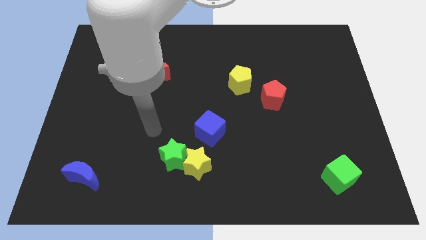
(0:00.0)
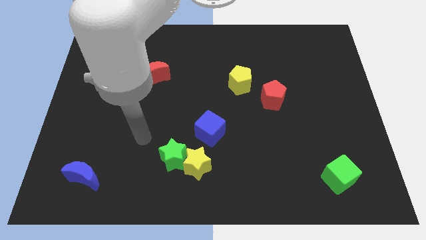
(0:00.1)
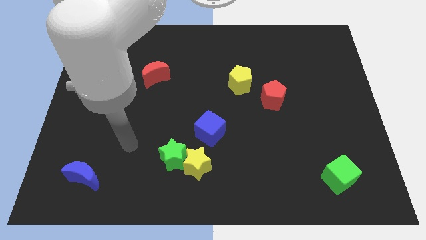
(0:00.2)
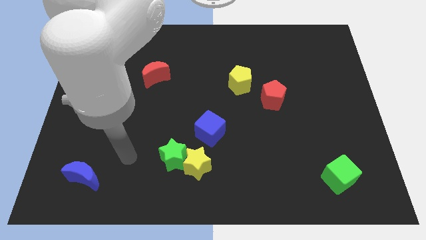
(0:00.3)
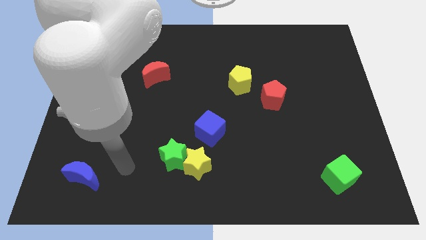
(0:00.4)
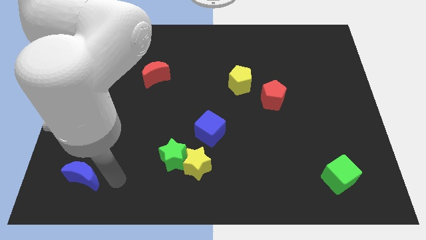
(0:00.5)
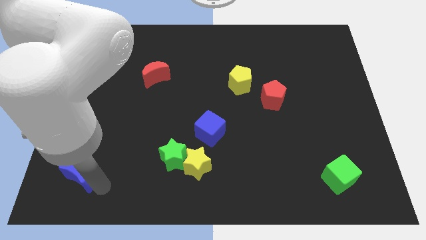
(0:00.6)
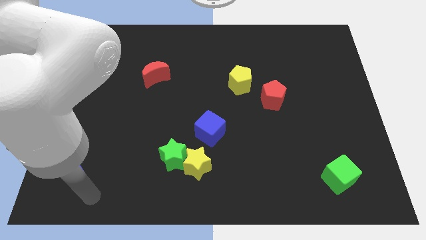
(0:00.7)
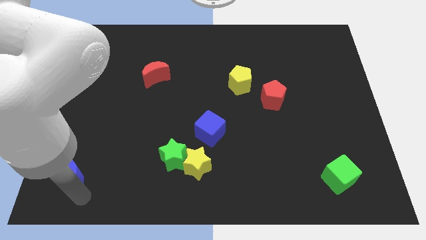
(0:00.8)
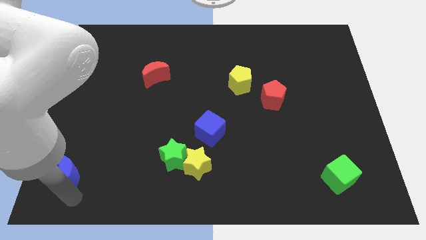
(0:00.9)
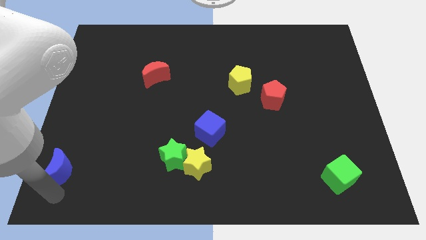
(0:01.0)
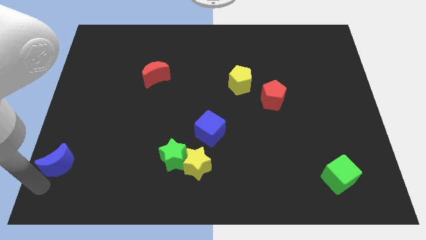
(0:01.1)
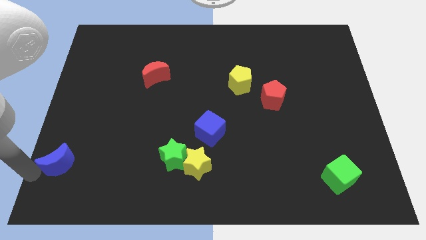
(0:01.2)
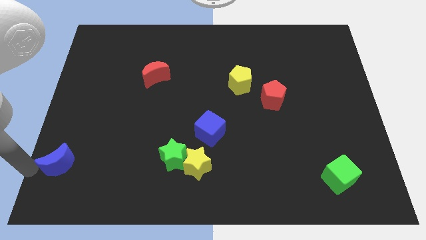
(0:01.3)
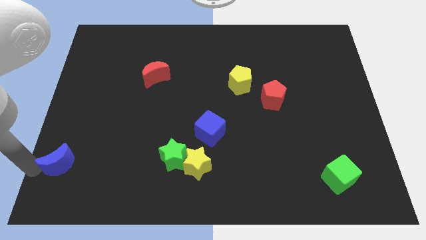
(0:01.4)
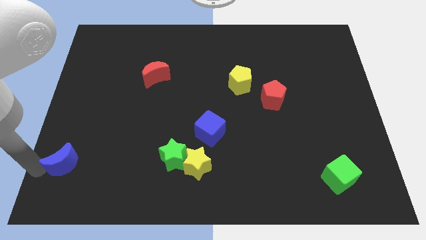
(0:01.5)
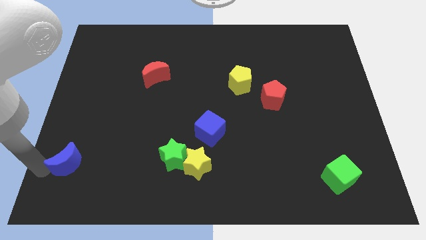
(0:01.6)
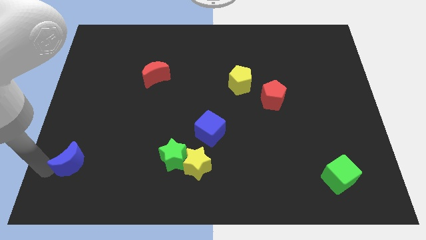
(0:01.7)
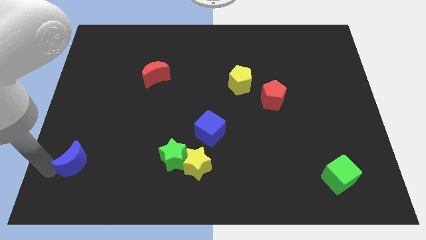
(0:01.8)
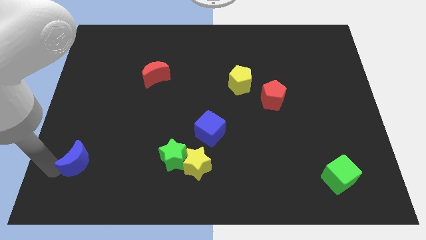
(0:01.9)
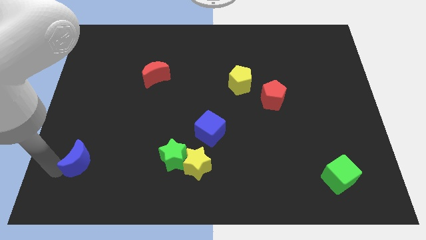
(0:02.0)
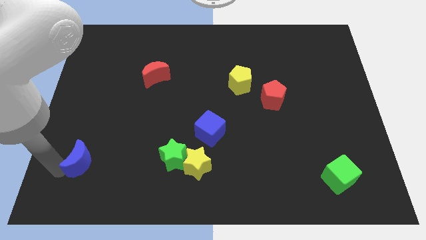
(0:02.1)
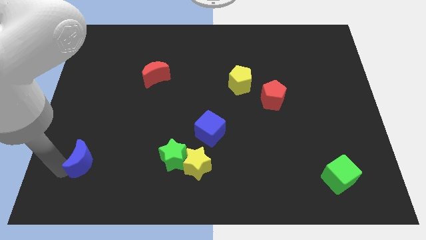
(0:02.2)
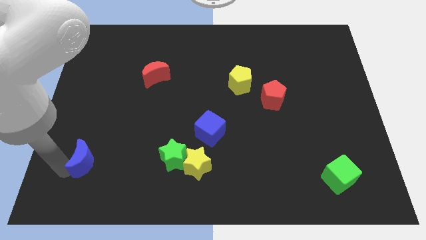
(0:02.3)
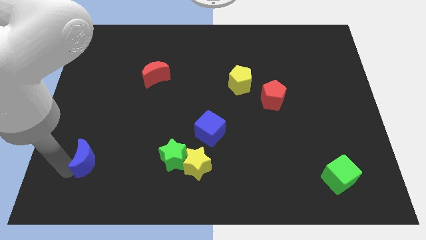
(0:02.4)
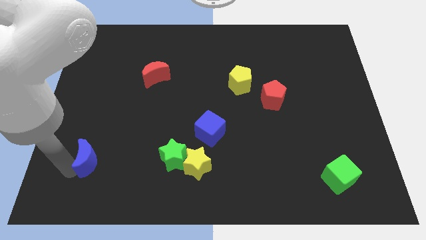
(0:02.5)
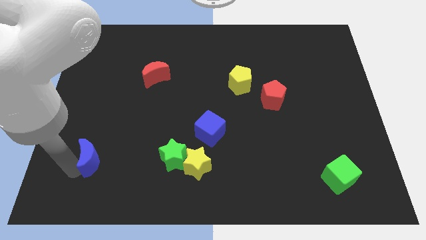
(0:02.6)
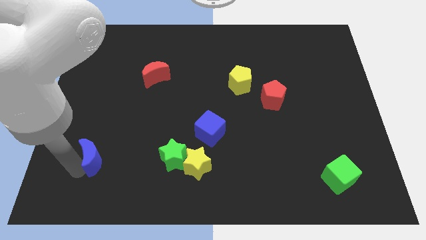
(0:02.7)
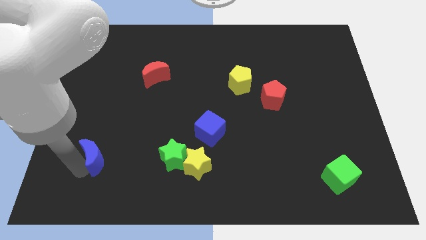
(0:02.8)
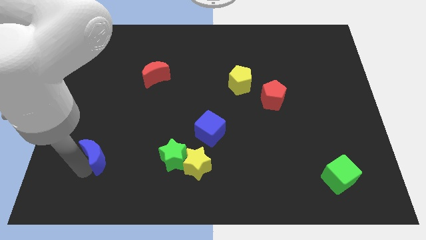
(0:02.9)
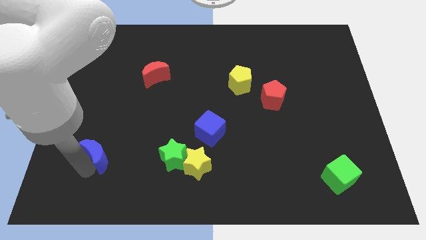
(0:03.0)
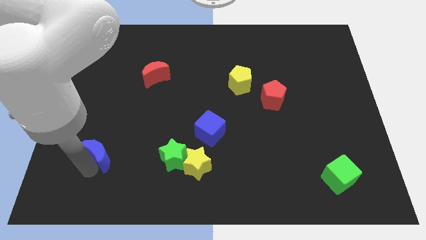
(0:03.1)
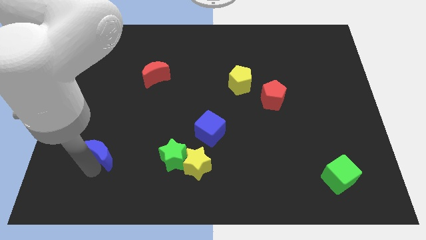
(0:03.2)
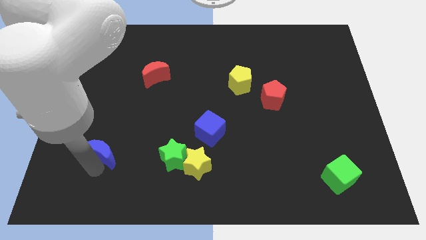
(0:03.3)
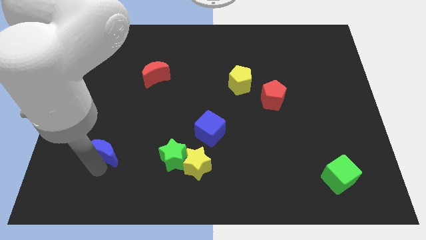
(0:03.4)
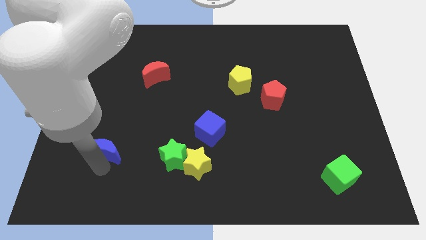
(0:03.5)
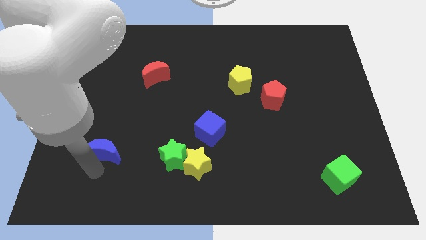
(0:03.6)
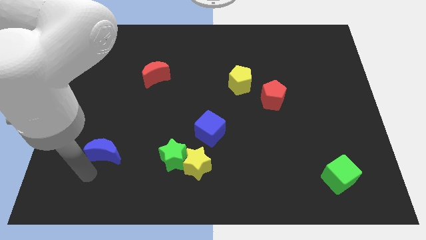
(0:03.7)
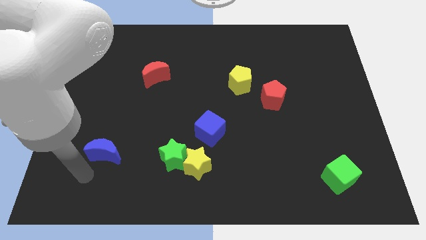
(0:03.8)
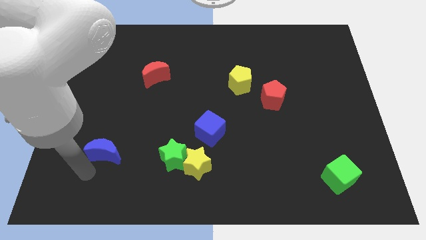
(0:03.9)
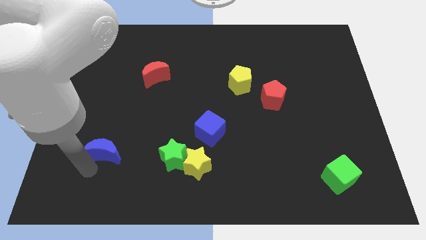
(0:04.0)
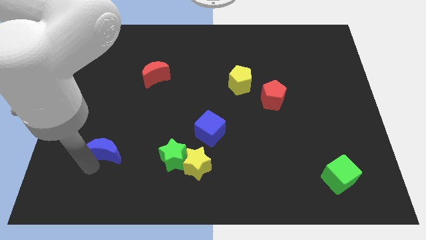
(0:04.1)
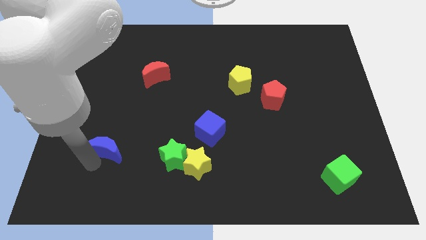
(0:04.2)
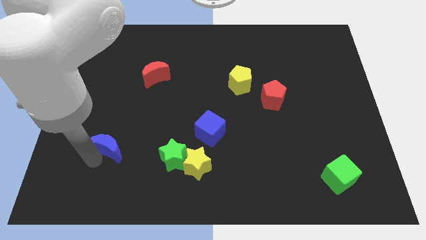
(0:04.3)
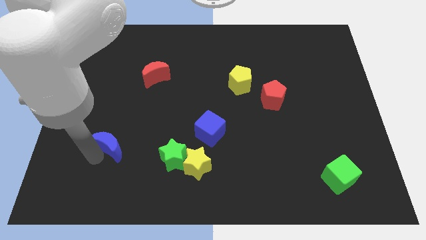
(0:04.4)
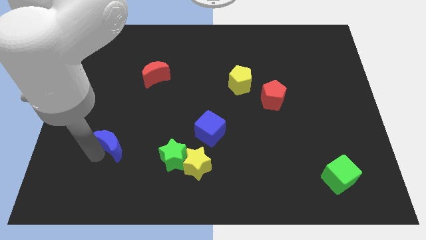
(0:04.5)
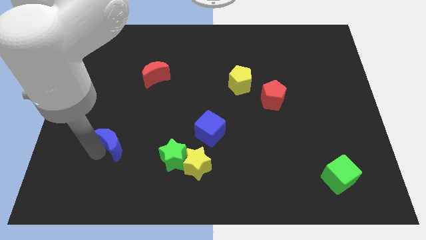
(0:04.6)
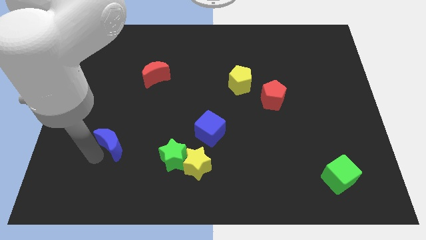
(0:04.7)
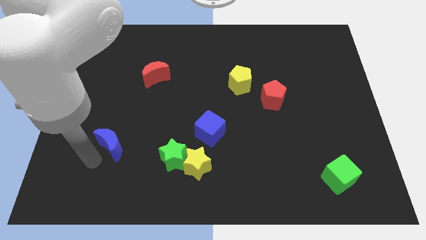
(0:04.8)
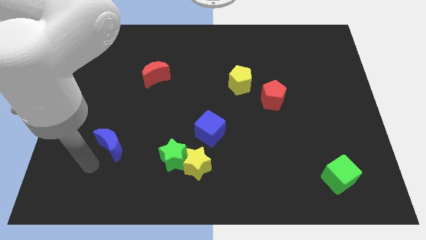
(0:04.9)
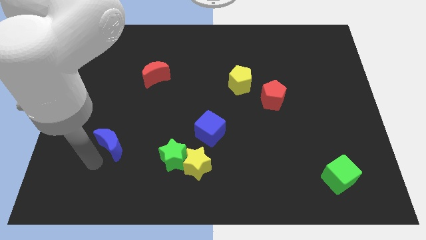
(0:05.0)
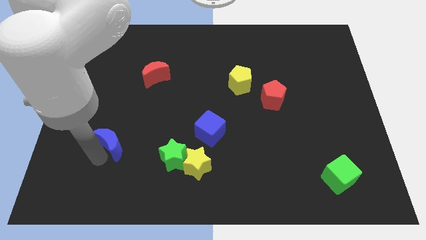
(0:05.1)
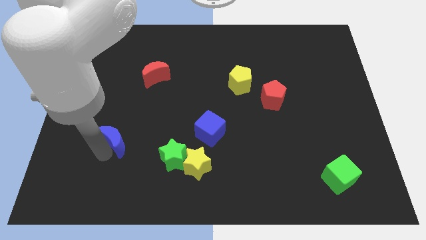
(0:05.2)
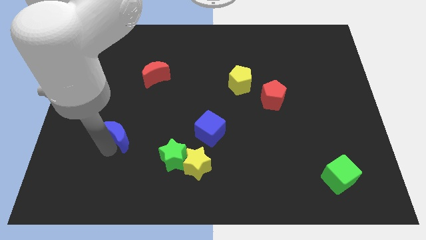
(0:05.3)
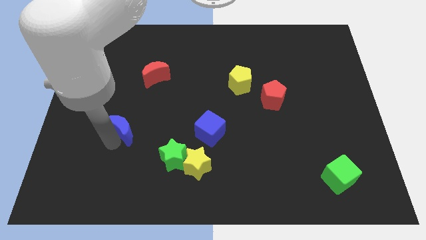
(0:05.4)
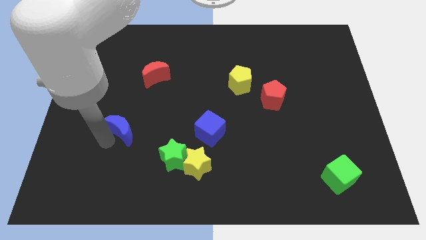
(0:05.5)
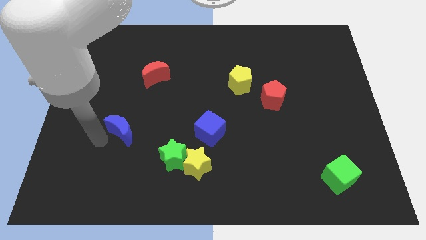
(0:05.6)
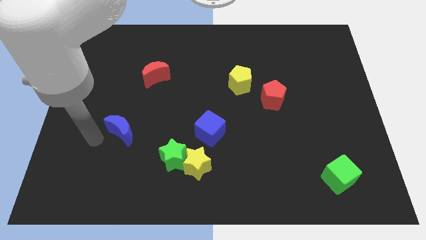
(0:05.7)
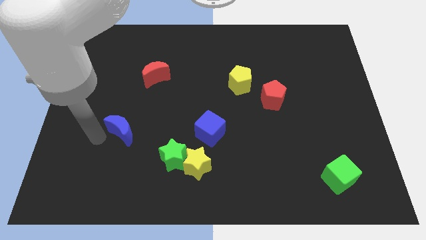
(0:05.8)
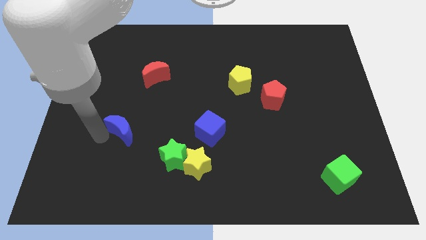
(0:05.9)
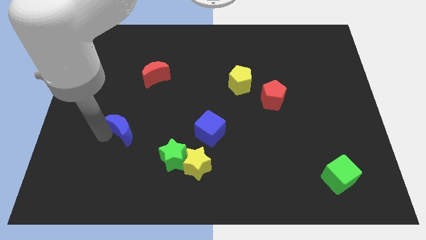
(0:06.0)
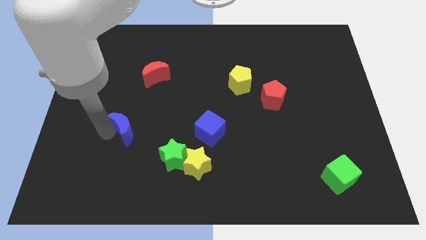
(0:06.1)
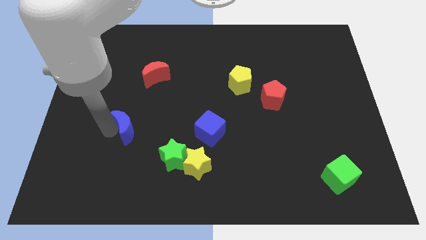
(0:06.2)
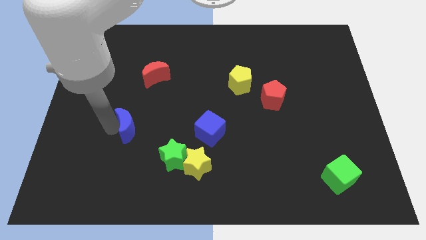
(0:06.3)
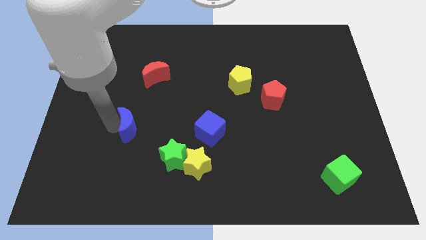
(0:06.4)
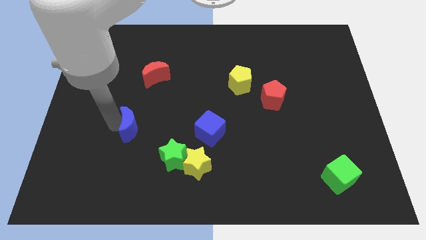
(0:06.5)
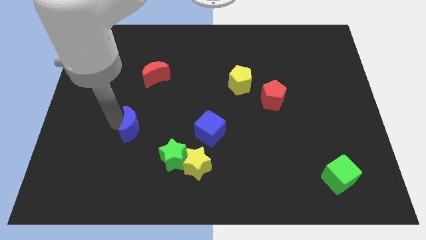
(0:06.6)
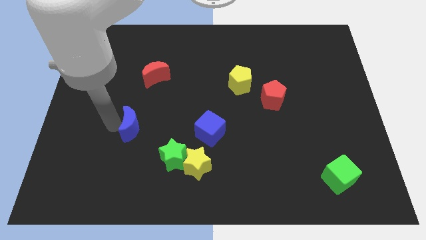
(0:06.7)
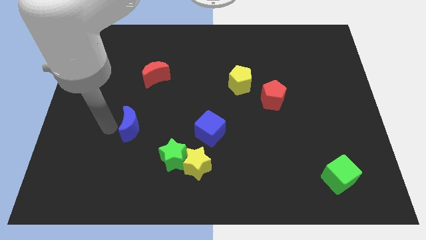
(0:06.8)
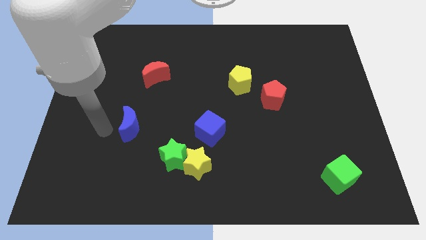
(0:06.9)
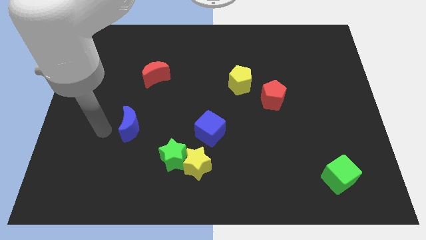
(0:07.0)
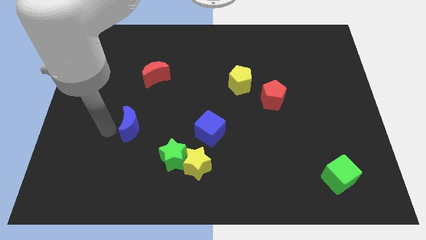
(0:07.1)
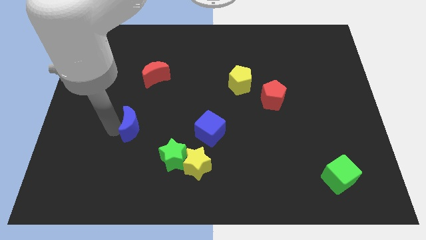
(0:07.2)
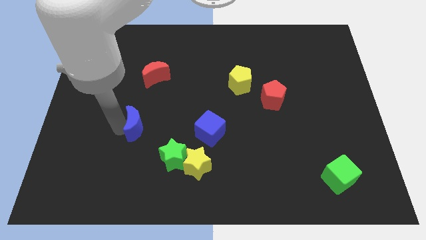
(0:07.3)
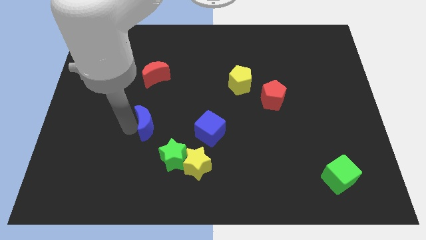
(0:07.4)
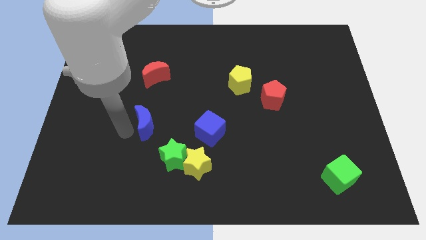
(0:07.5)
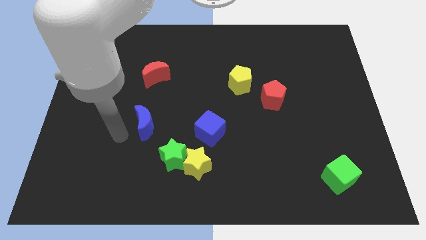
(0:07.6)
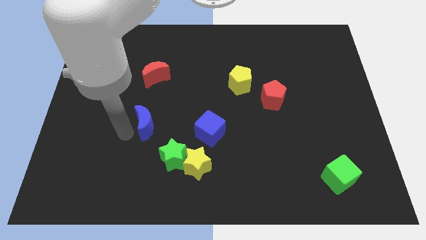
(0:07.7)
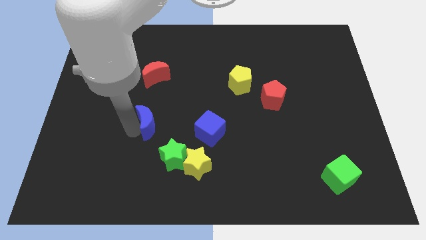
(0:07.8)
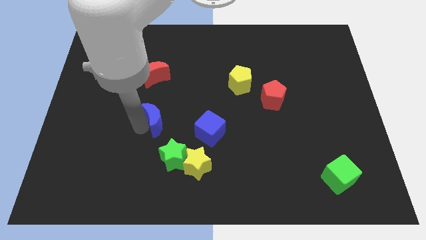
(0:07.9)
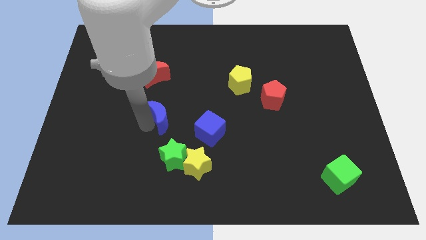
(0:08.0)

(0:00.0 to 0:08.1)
push the blue moon upwards and to the right
